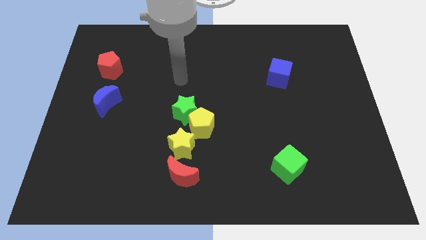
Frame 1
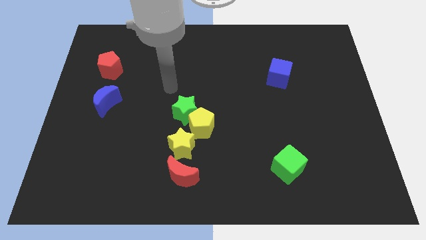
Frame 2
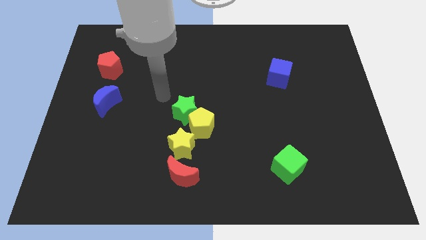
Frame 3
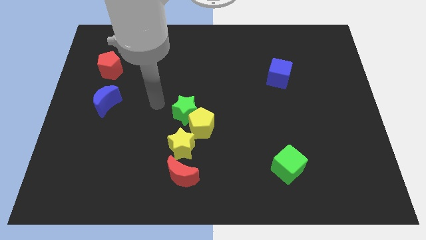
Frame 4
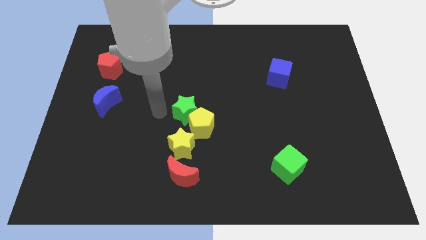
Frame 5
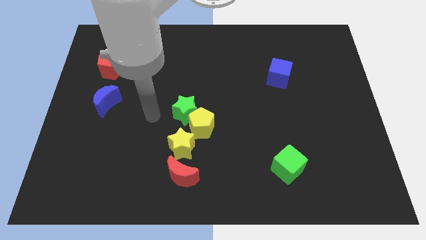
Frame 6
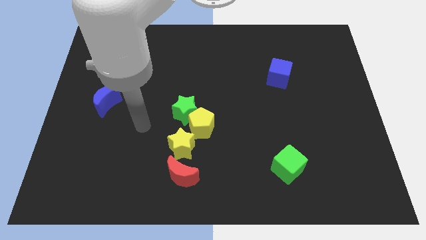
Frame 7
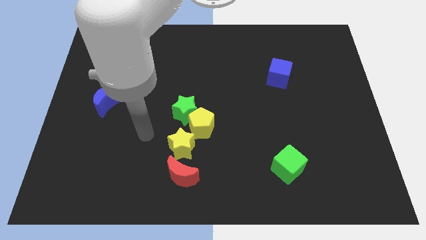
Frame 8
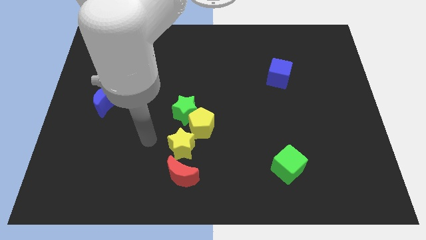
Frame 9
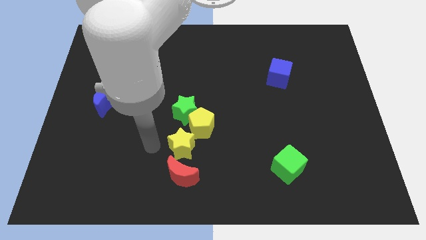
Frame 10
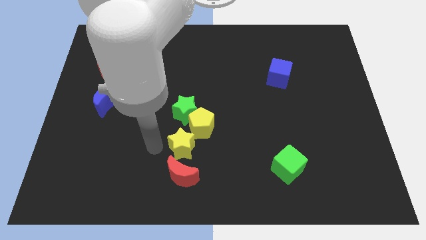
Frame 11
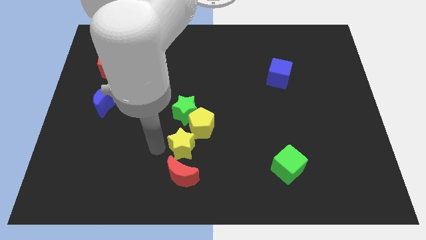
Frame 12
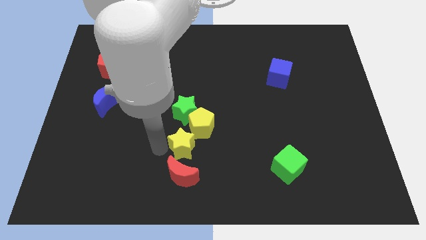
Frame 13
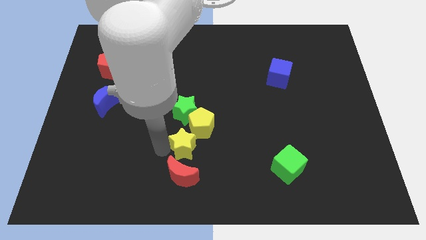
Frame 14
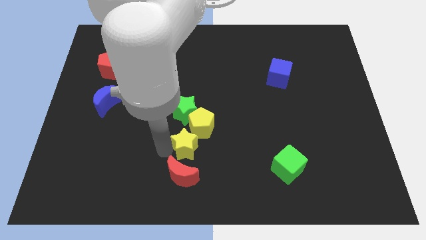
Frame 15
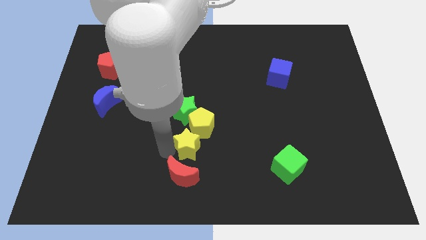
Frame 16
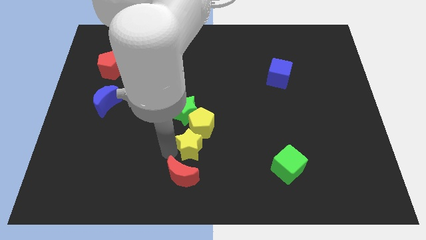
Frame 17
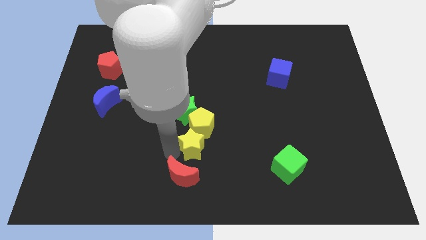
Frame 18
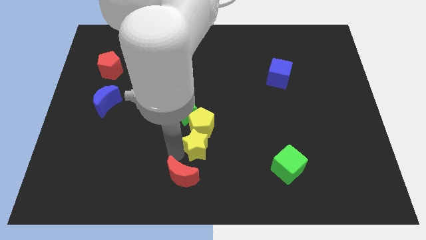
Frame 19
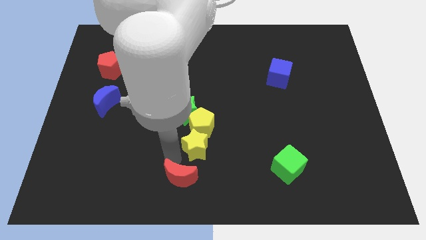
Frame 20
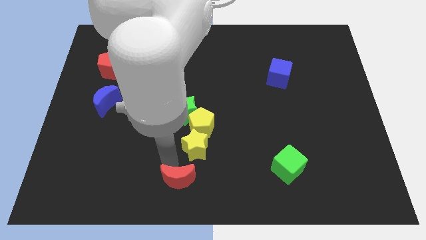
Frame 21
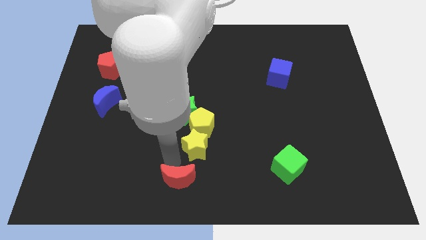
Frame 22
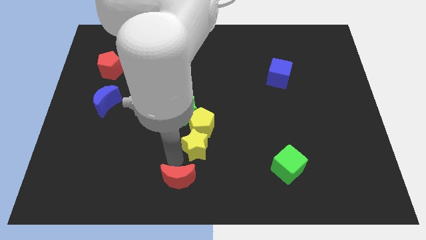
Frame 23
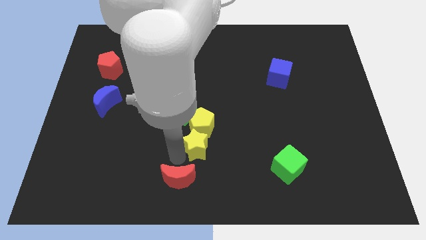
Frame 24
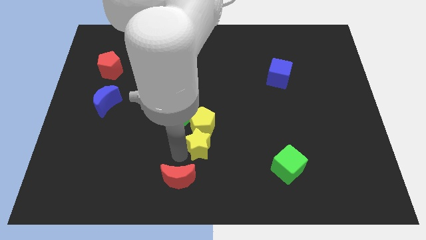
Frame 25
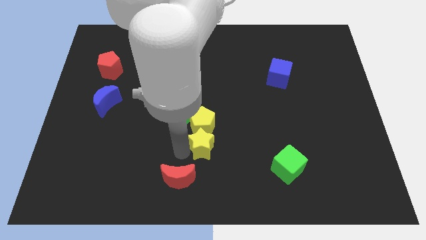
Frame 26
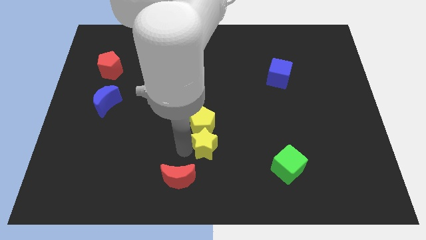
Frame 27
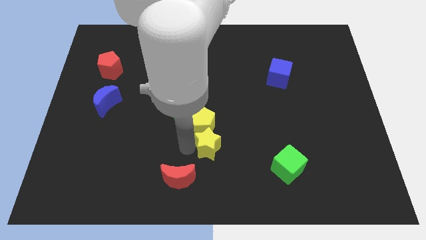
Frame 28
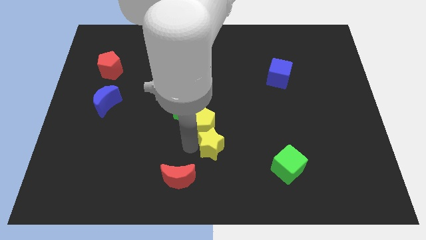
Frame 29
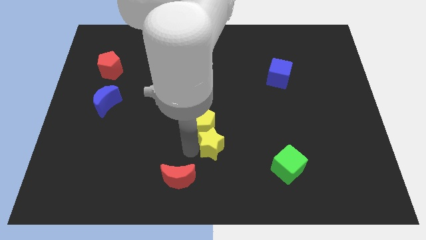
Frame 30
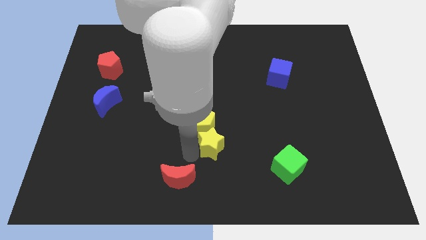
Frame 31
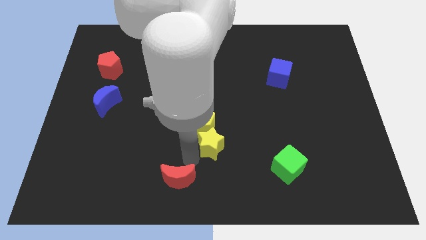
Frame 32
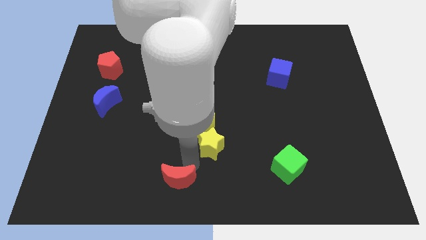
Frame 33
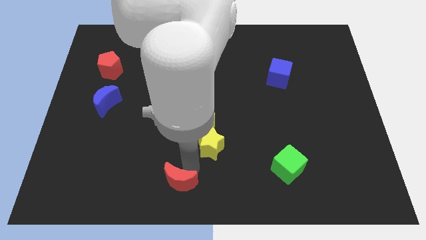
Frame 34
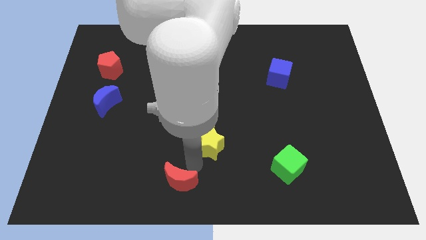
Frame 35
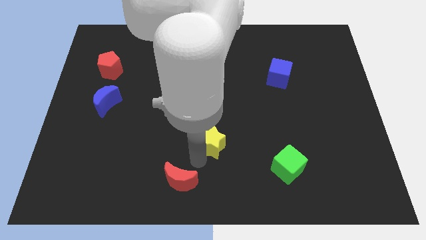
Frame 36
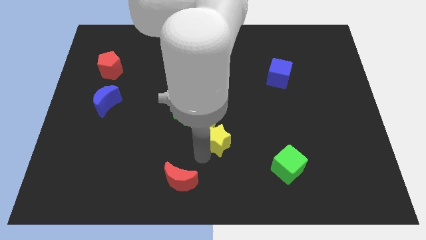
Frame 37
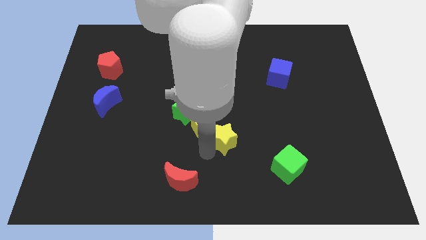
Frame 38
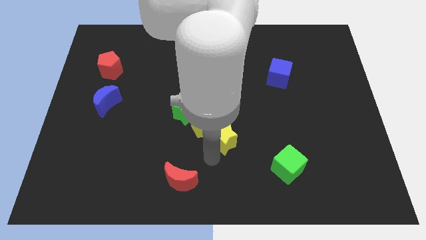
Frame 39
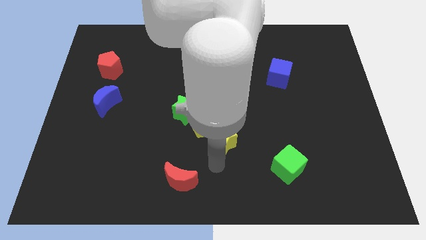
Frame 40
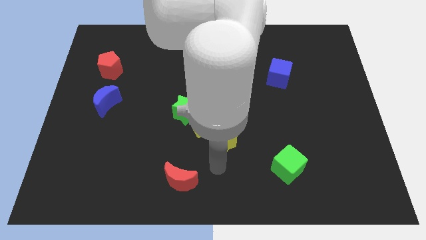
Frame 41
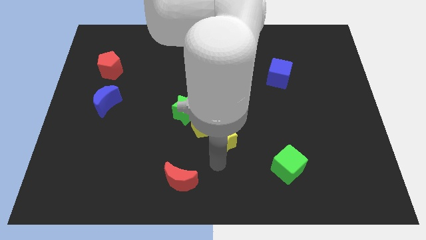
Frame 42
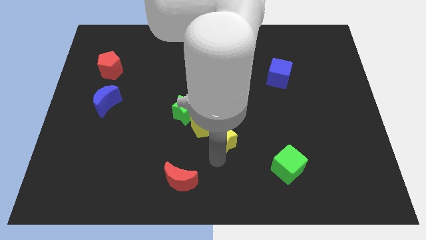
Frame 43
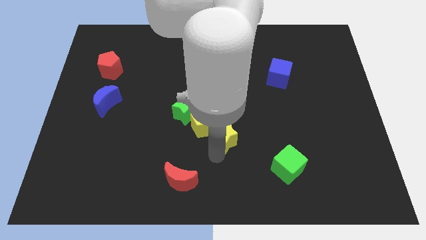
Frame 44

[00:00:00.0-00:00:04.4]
move the yellow star up and right slightly

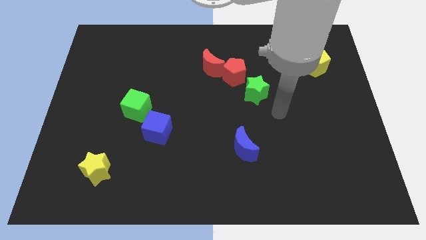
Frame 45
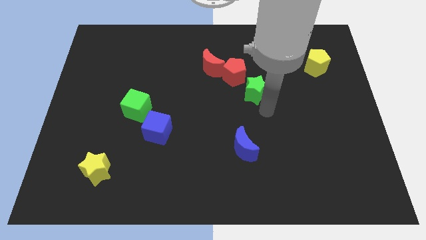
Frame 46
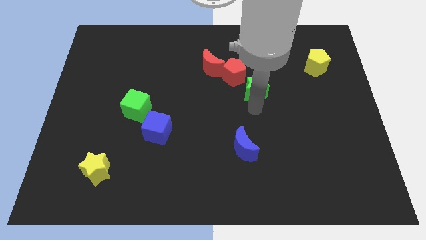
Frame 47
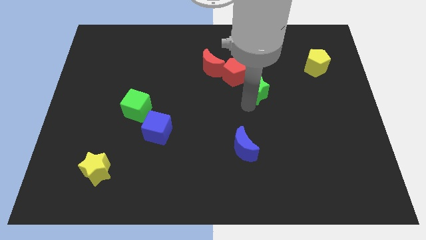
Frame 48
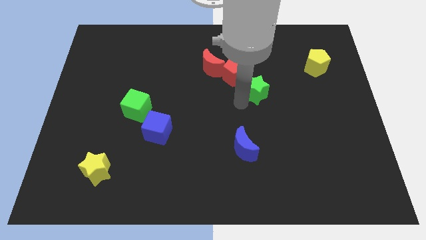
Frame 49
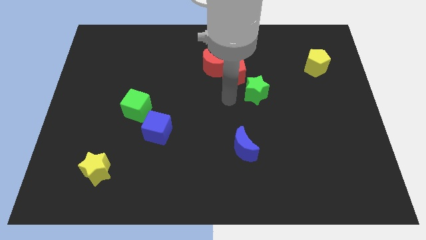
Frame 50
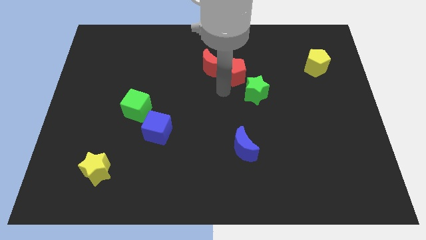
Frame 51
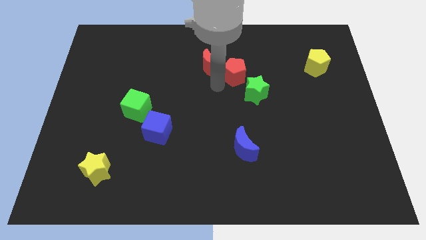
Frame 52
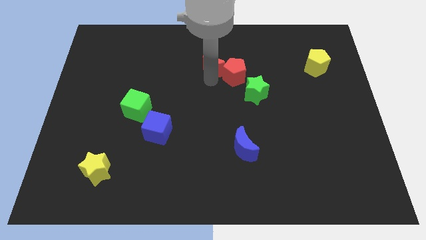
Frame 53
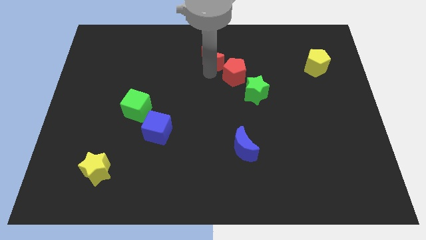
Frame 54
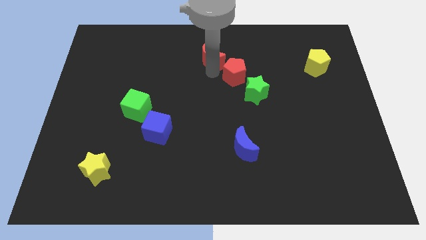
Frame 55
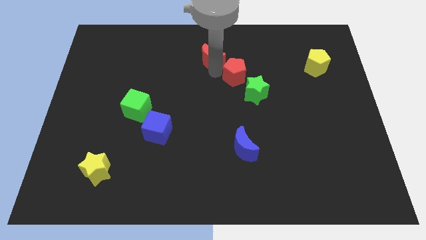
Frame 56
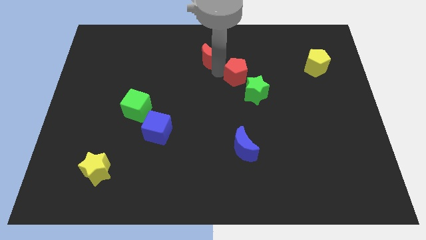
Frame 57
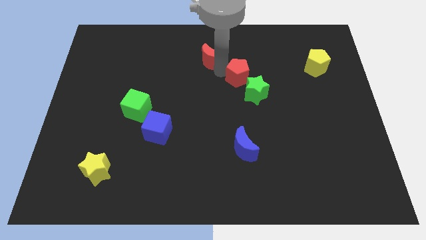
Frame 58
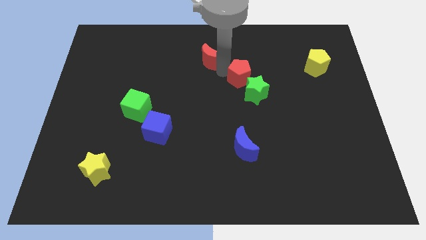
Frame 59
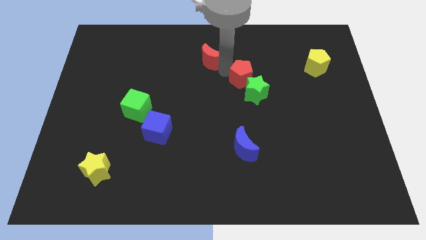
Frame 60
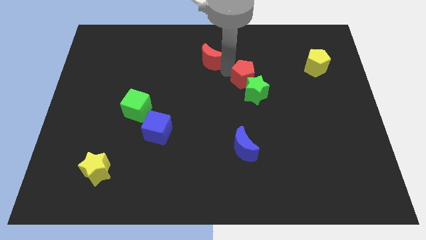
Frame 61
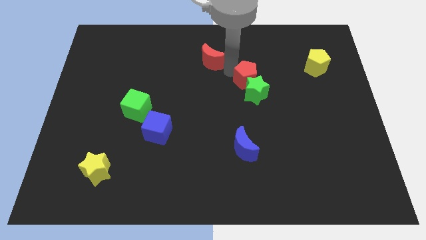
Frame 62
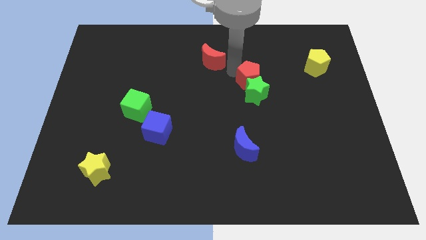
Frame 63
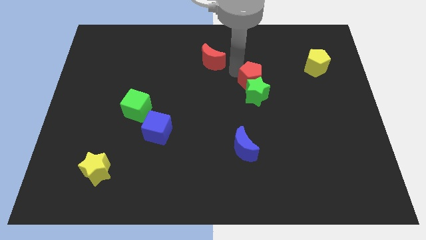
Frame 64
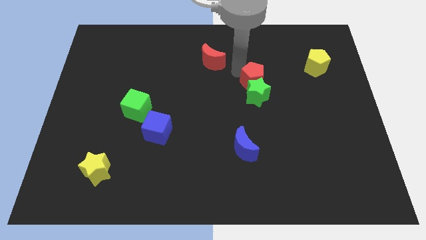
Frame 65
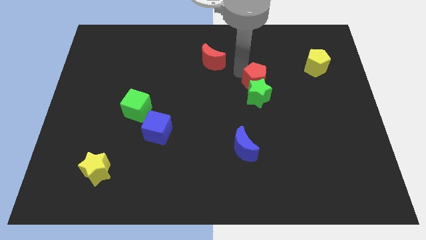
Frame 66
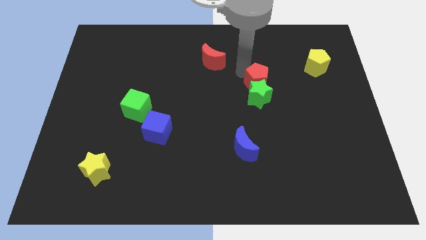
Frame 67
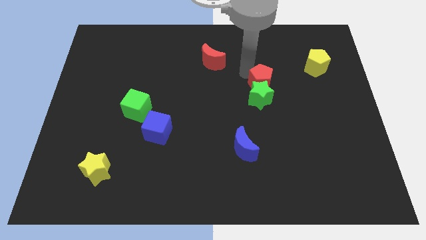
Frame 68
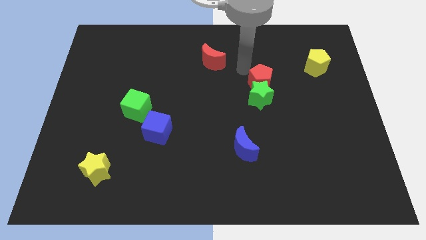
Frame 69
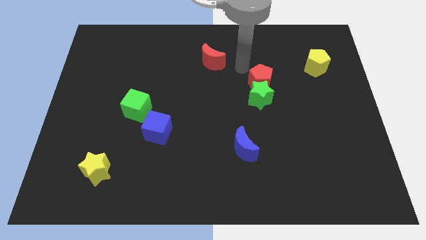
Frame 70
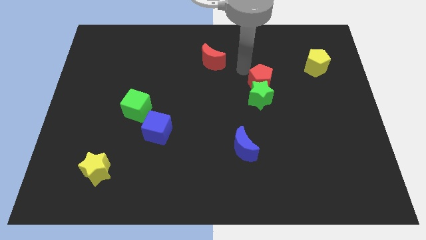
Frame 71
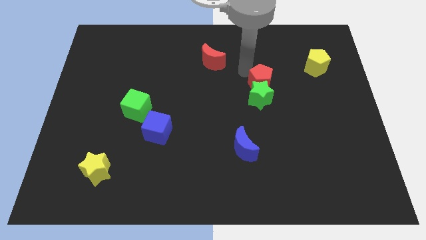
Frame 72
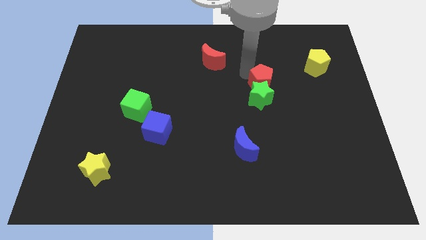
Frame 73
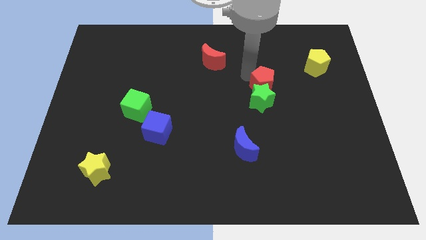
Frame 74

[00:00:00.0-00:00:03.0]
slightly slide the red pentagon downwards and right

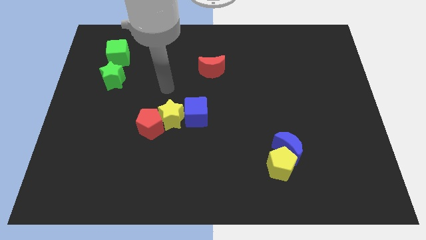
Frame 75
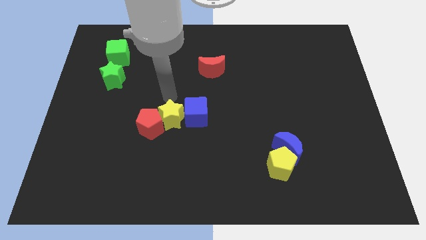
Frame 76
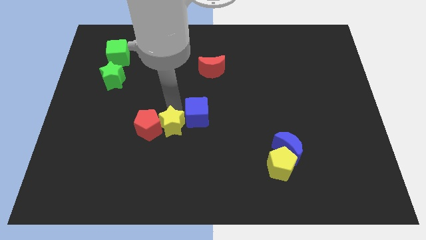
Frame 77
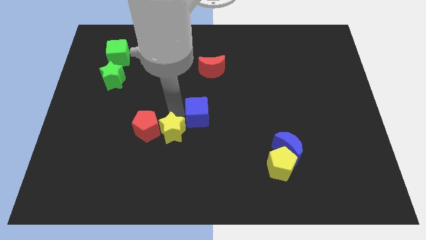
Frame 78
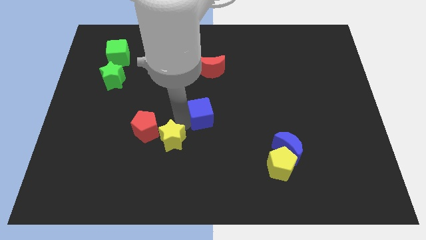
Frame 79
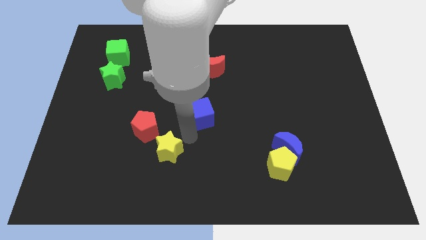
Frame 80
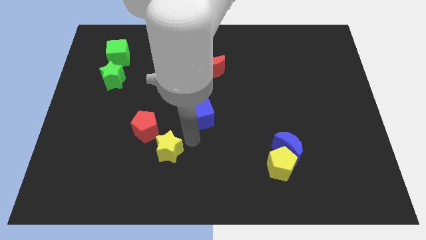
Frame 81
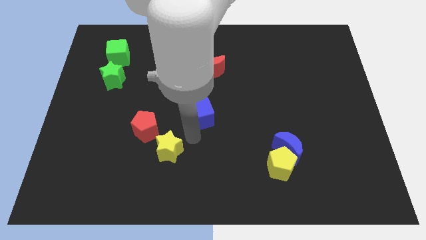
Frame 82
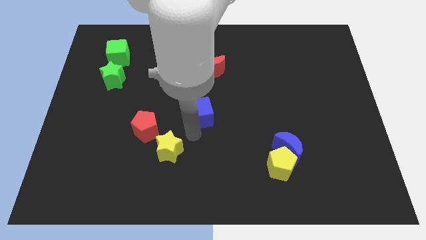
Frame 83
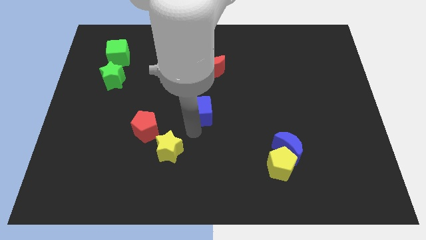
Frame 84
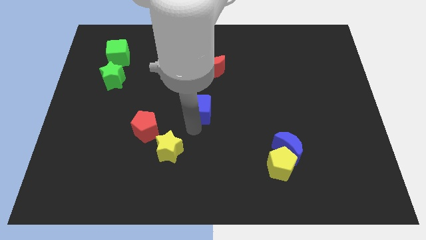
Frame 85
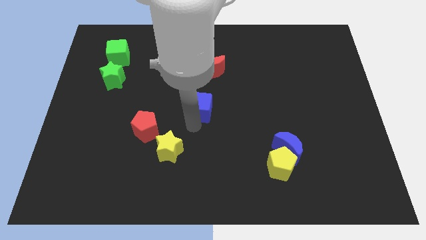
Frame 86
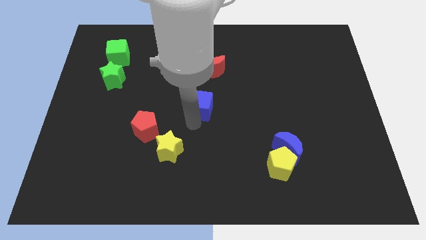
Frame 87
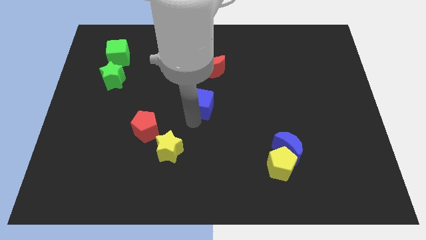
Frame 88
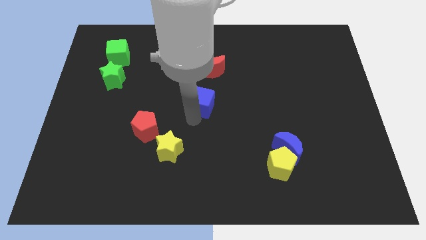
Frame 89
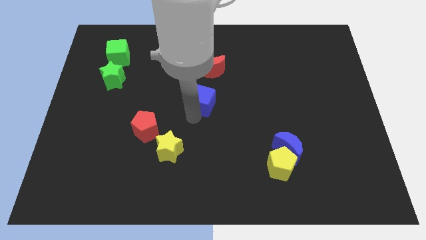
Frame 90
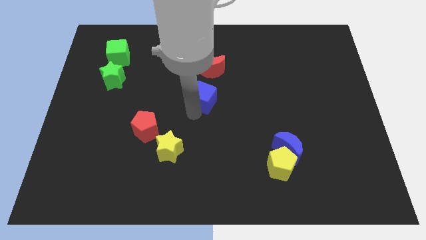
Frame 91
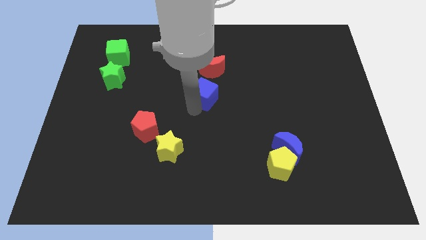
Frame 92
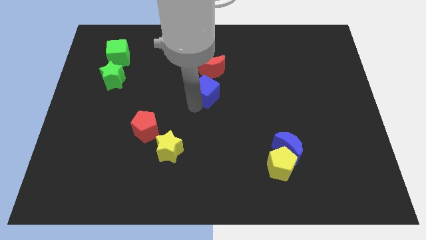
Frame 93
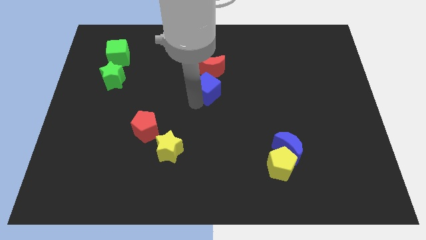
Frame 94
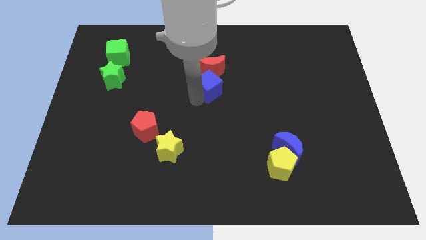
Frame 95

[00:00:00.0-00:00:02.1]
move the blue cube diagonally up and to the right slightly
